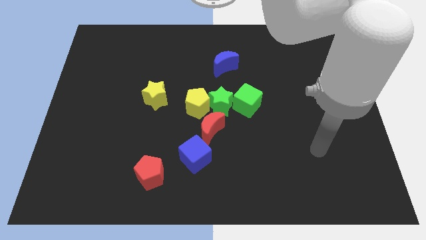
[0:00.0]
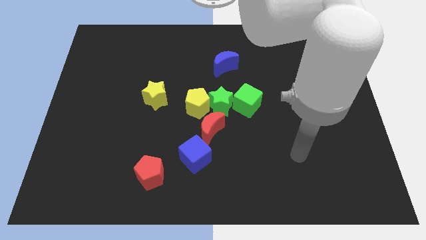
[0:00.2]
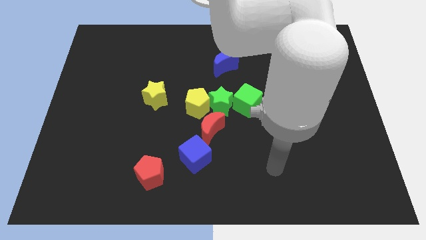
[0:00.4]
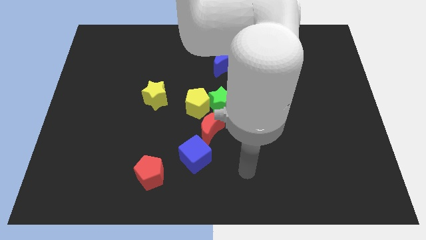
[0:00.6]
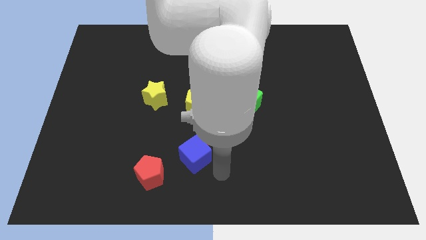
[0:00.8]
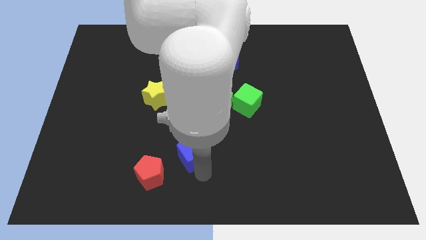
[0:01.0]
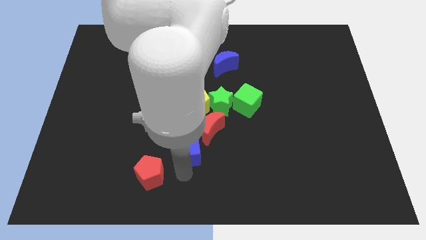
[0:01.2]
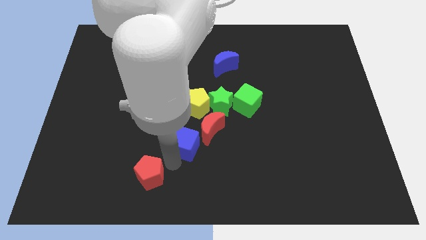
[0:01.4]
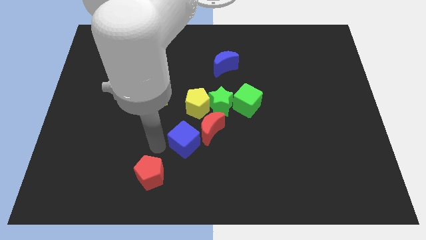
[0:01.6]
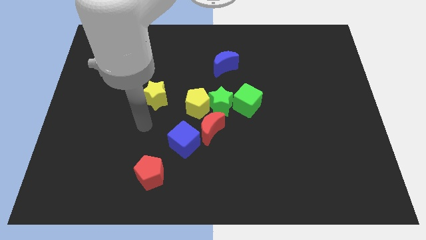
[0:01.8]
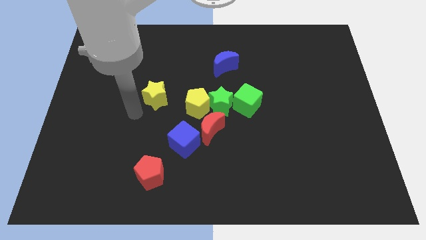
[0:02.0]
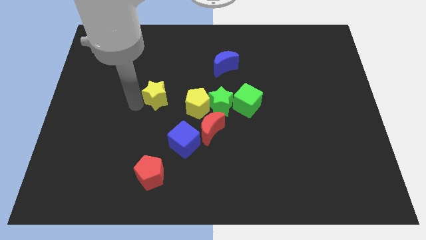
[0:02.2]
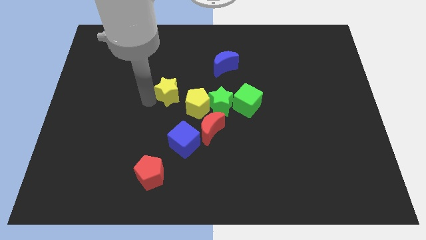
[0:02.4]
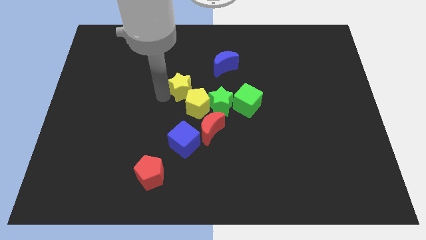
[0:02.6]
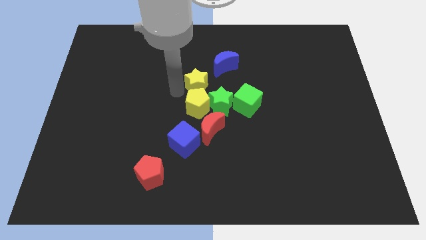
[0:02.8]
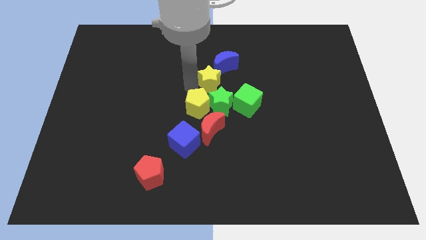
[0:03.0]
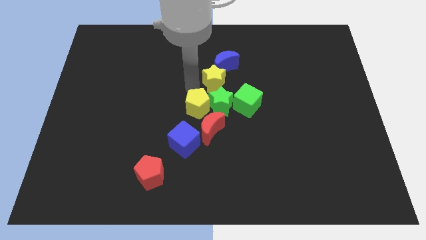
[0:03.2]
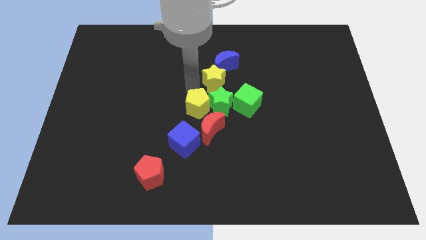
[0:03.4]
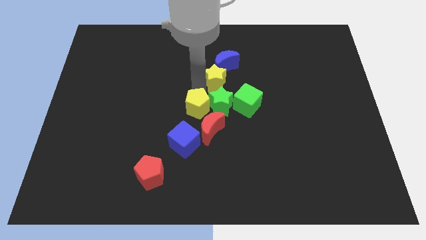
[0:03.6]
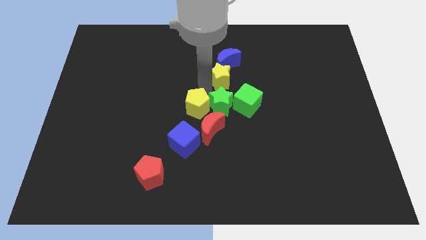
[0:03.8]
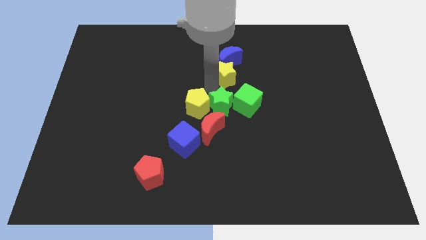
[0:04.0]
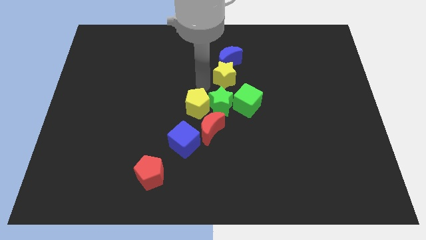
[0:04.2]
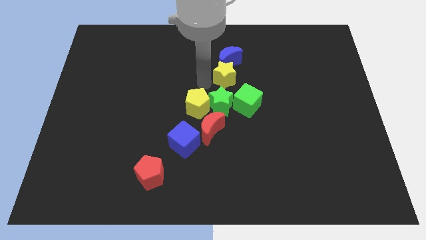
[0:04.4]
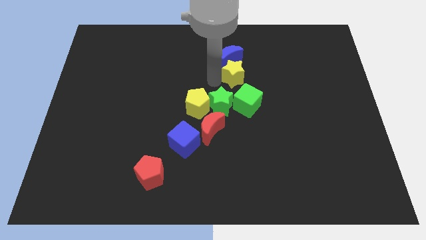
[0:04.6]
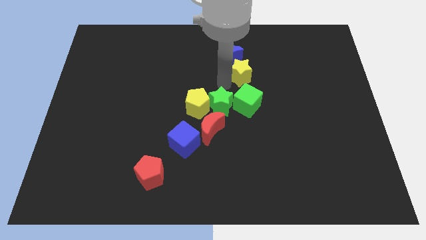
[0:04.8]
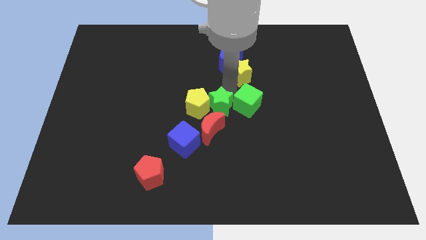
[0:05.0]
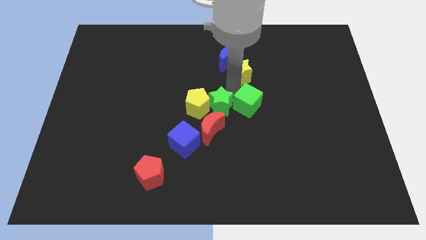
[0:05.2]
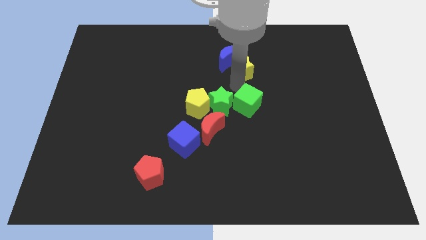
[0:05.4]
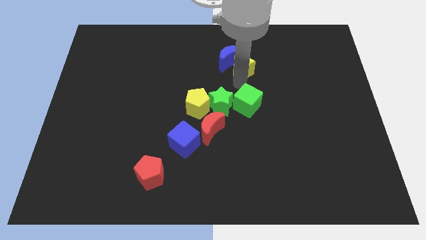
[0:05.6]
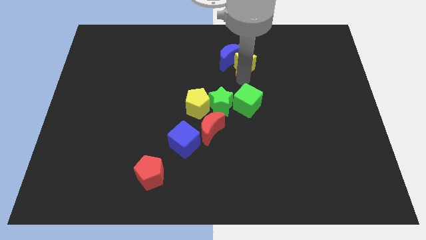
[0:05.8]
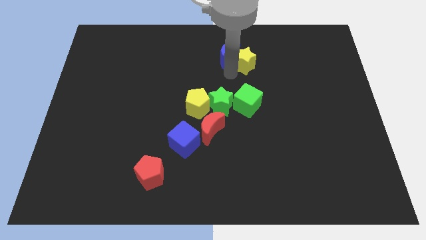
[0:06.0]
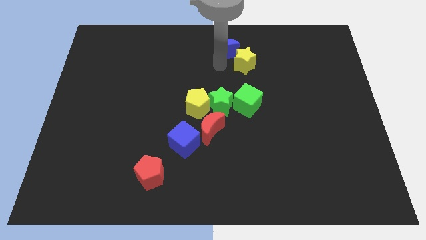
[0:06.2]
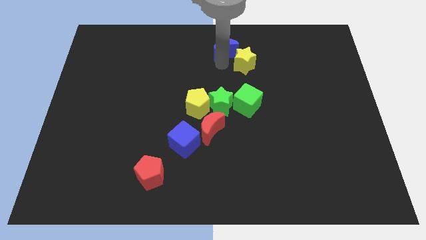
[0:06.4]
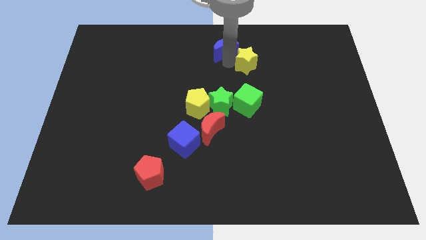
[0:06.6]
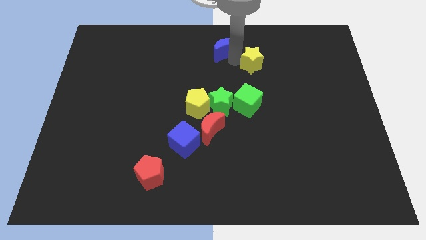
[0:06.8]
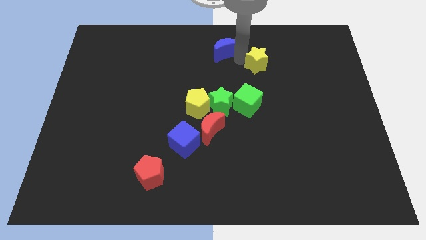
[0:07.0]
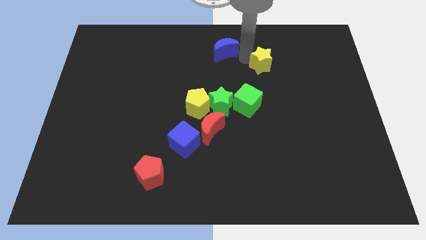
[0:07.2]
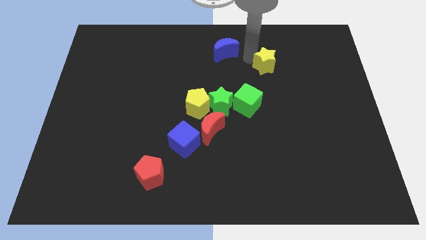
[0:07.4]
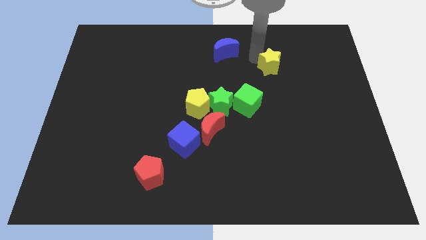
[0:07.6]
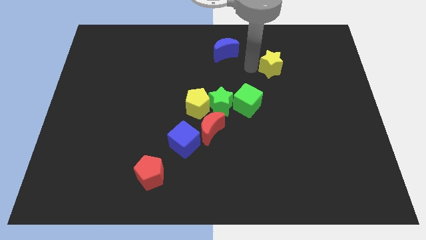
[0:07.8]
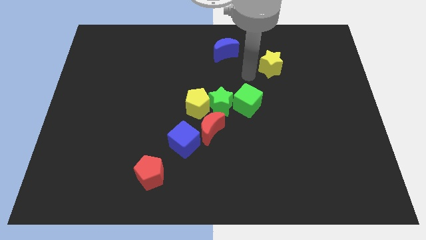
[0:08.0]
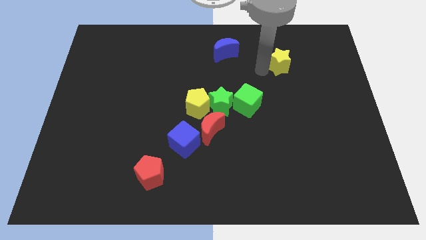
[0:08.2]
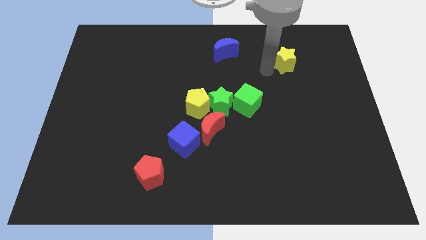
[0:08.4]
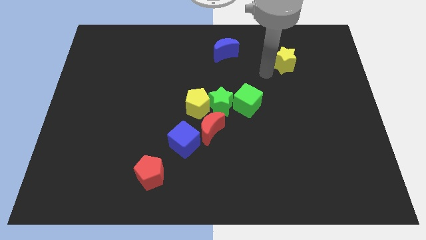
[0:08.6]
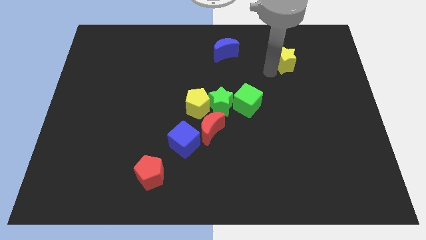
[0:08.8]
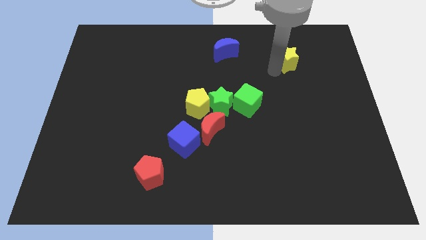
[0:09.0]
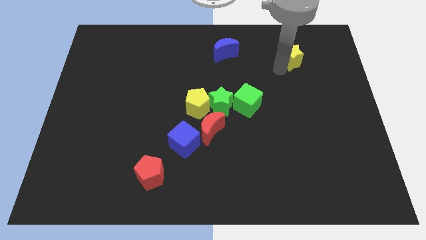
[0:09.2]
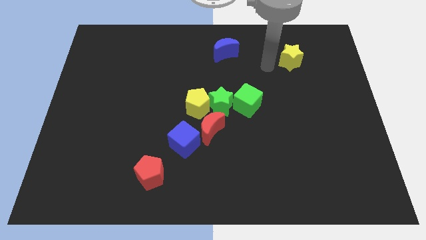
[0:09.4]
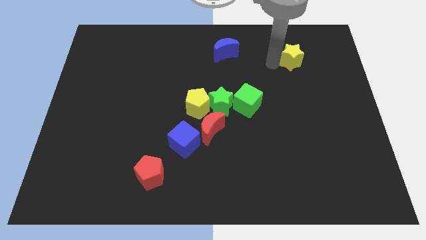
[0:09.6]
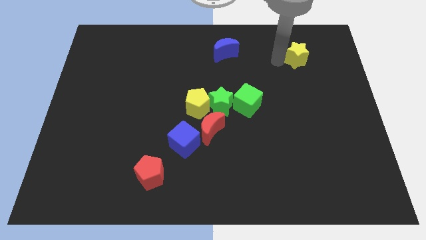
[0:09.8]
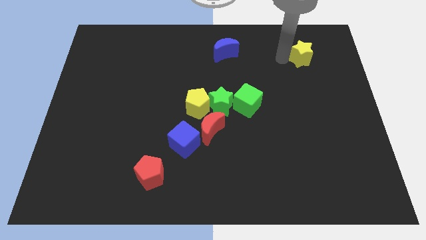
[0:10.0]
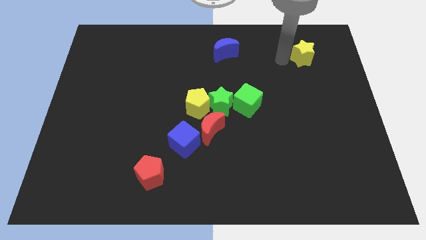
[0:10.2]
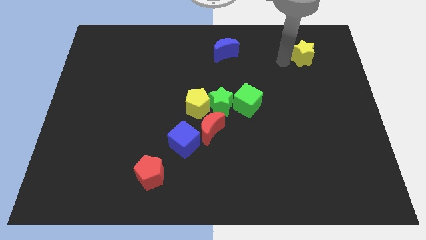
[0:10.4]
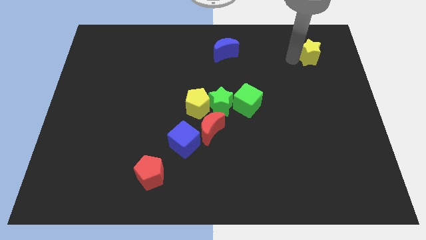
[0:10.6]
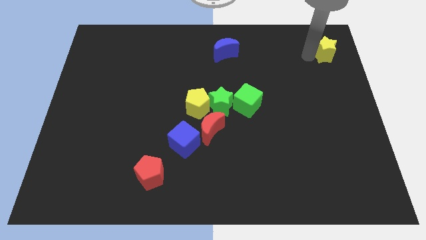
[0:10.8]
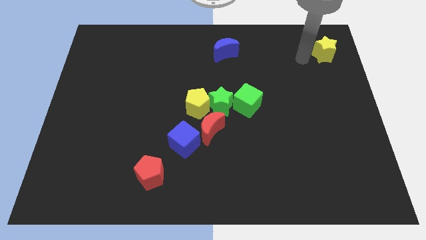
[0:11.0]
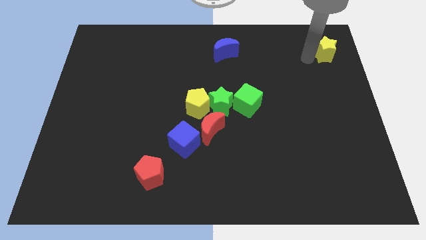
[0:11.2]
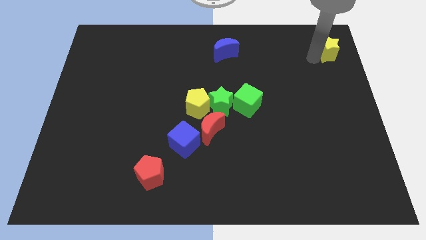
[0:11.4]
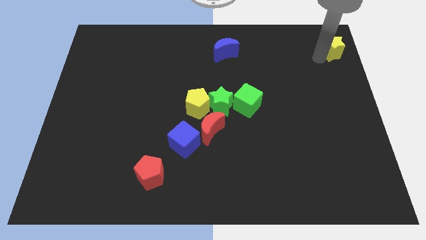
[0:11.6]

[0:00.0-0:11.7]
push the yellow star to the top right
